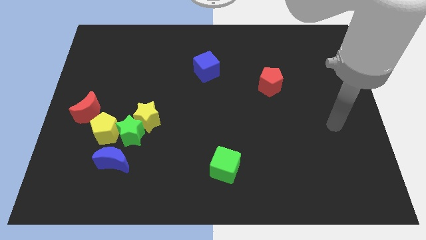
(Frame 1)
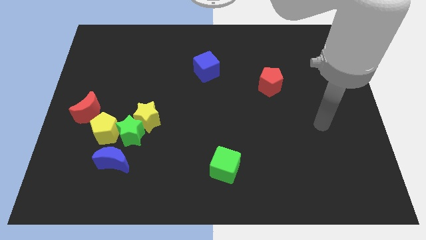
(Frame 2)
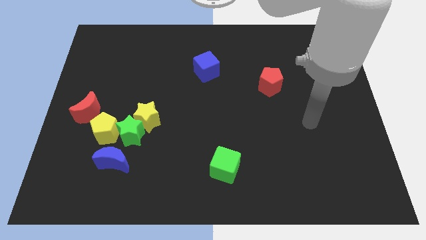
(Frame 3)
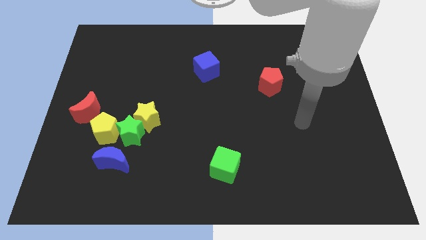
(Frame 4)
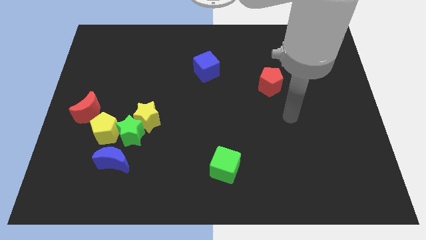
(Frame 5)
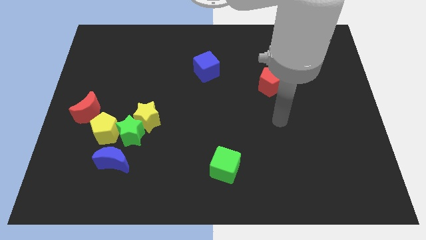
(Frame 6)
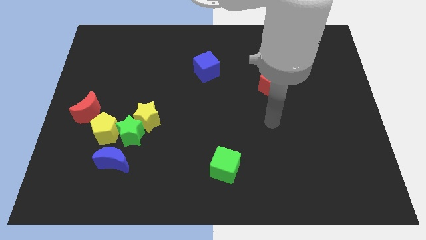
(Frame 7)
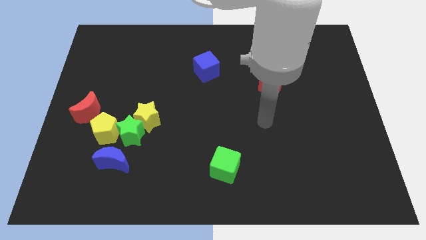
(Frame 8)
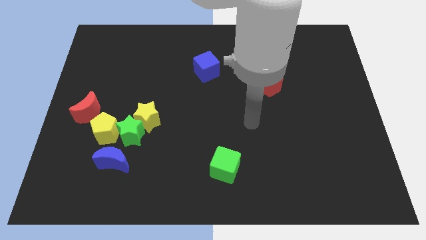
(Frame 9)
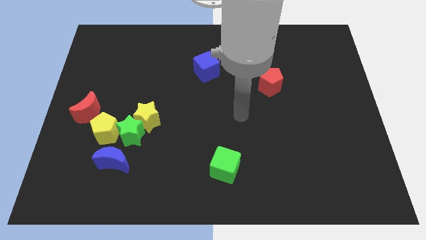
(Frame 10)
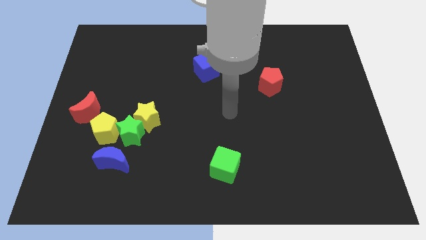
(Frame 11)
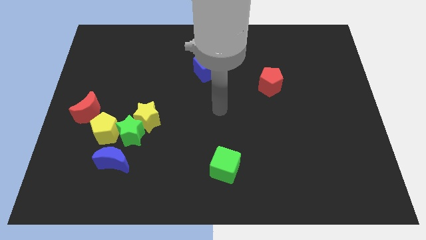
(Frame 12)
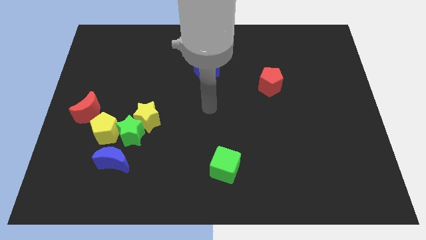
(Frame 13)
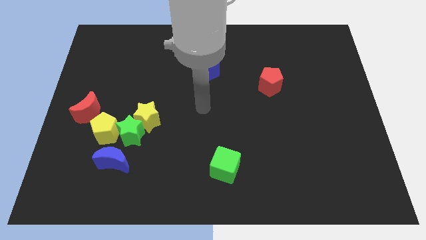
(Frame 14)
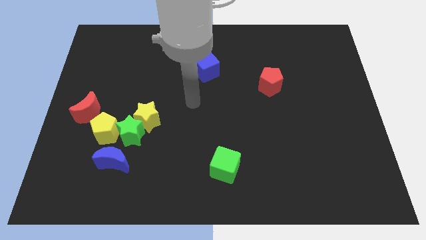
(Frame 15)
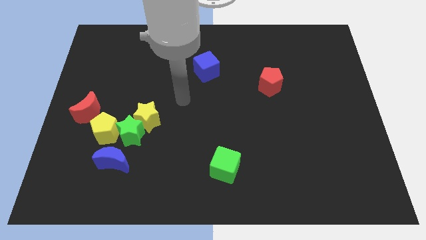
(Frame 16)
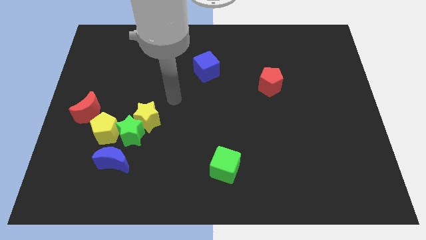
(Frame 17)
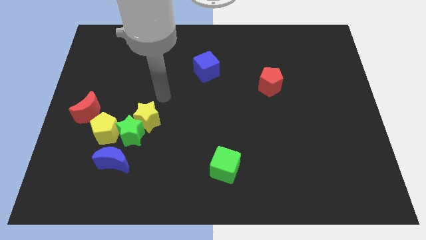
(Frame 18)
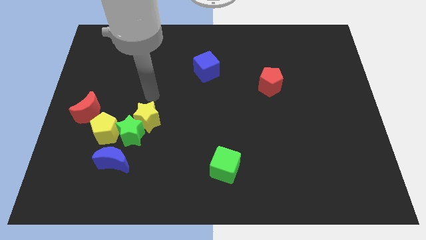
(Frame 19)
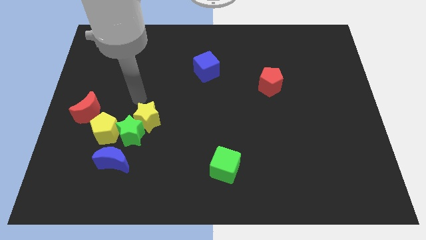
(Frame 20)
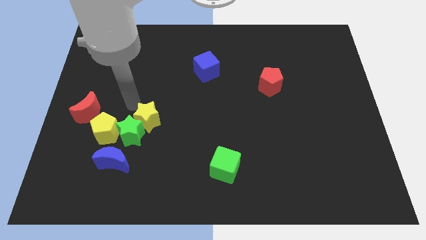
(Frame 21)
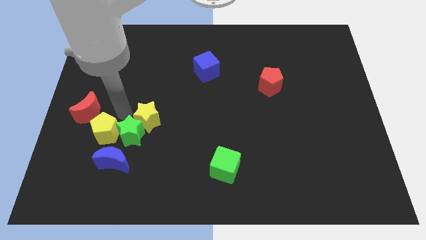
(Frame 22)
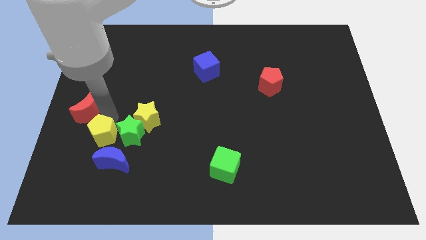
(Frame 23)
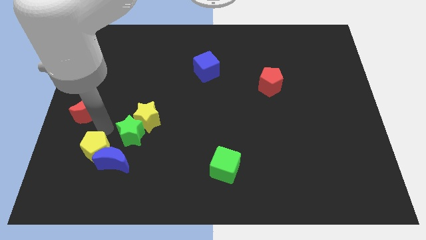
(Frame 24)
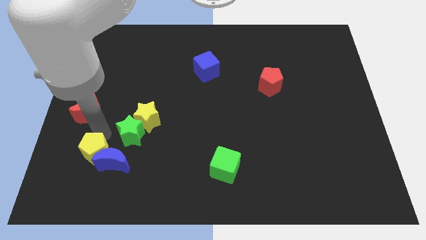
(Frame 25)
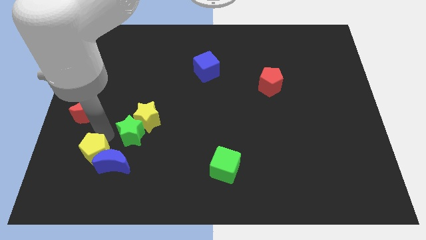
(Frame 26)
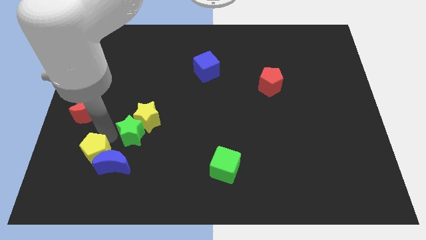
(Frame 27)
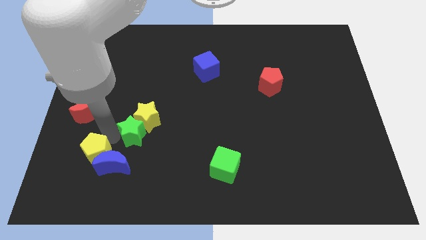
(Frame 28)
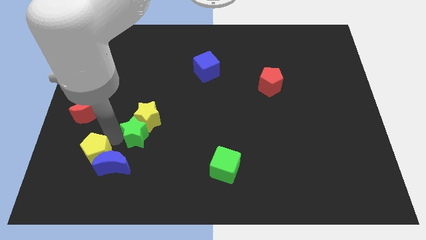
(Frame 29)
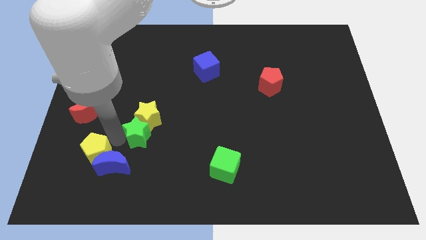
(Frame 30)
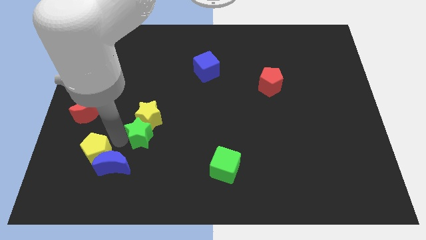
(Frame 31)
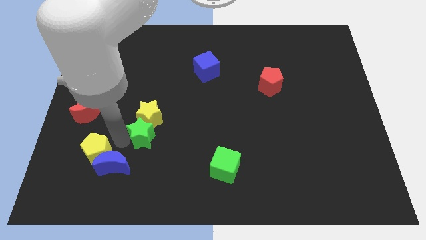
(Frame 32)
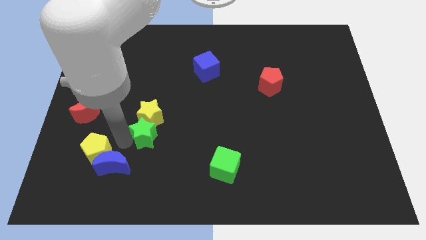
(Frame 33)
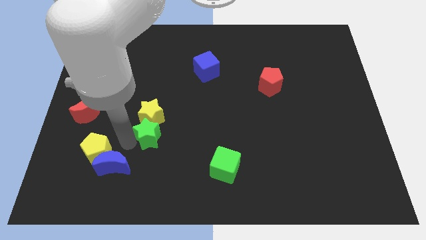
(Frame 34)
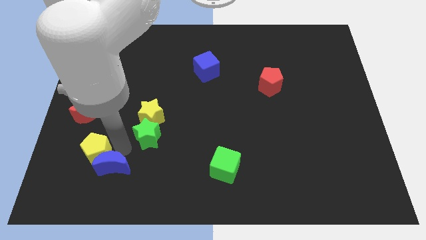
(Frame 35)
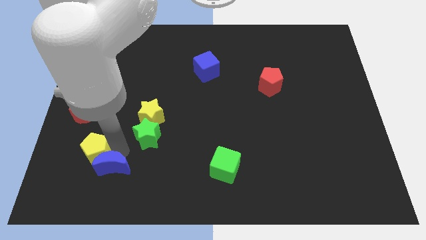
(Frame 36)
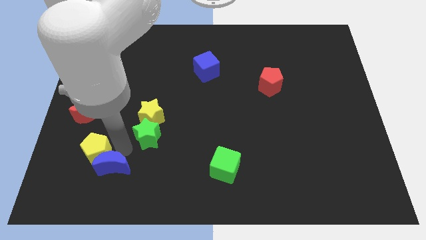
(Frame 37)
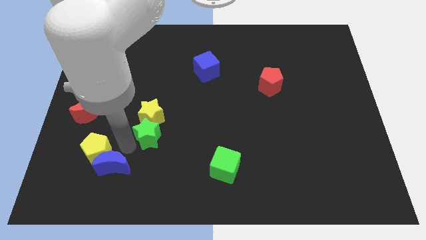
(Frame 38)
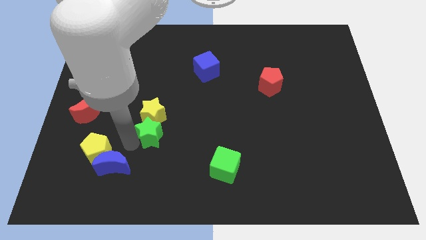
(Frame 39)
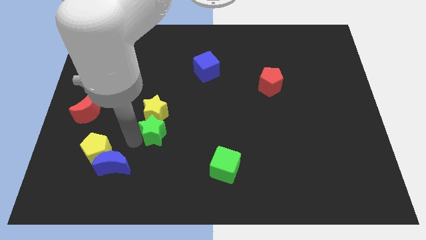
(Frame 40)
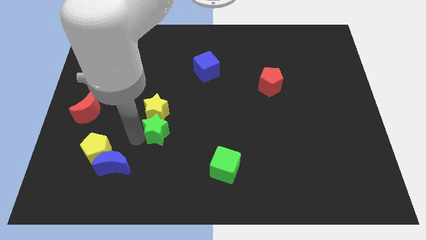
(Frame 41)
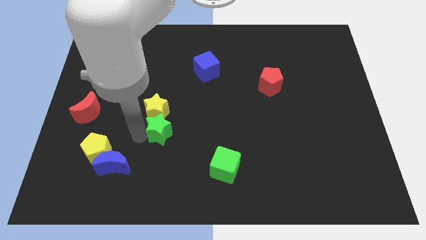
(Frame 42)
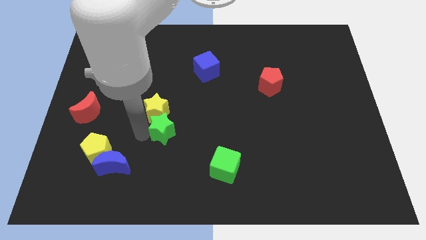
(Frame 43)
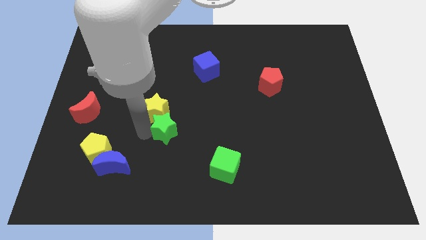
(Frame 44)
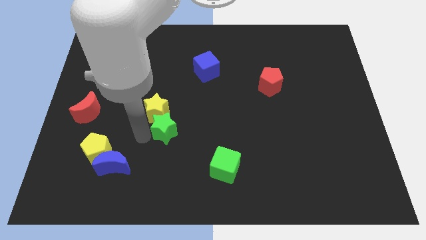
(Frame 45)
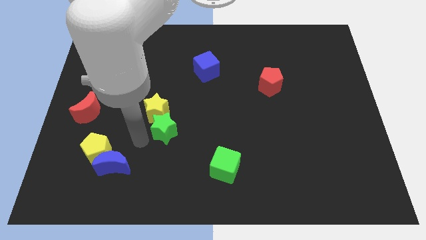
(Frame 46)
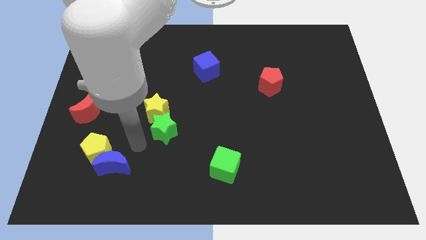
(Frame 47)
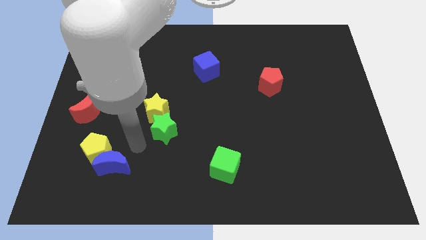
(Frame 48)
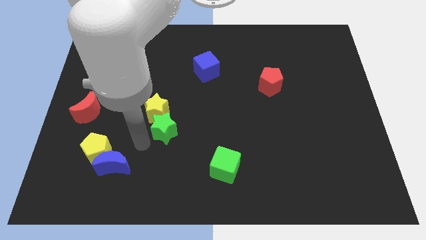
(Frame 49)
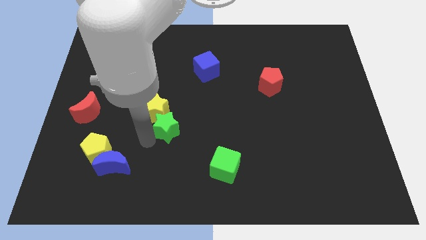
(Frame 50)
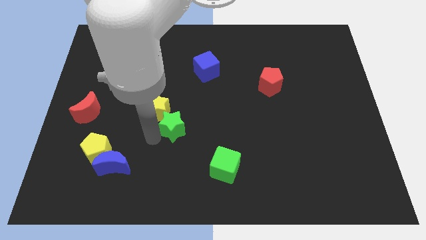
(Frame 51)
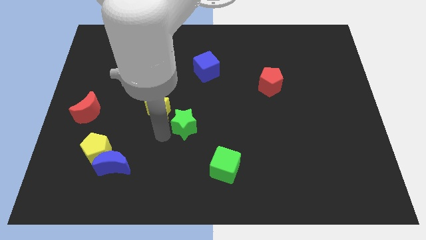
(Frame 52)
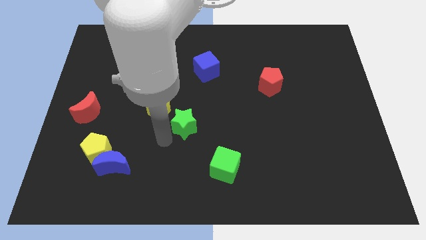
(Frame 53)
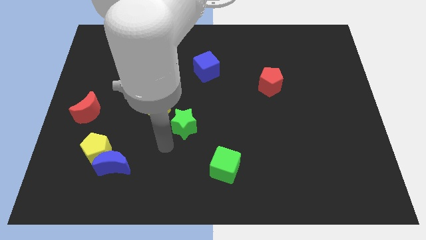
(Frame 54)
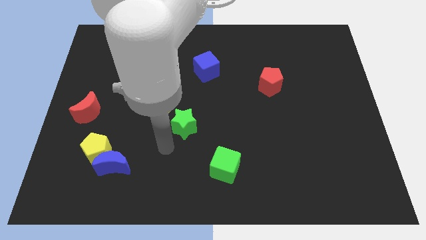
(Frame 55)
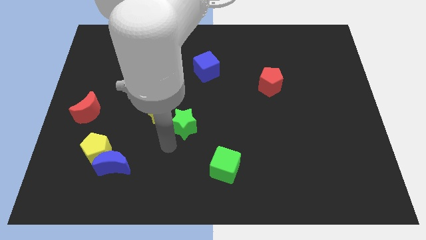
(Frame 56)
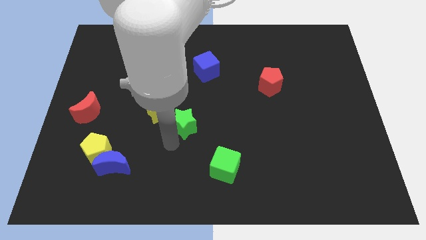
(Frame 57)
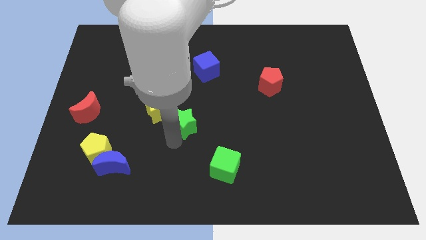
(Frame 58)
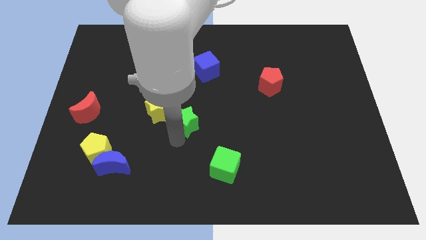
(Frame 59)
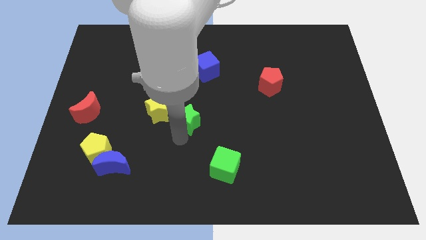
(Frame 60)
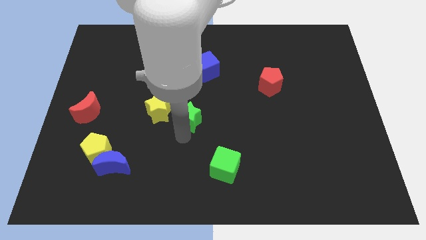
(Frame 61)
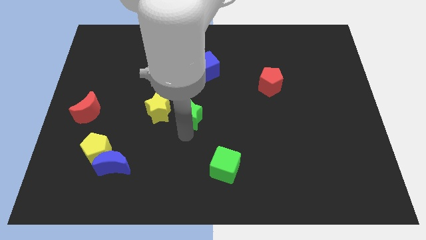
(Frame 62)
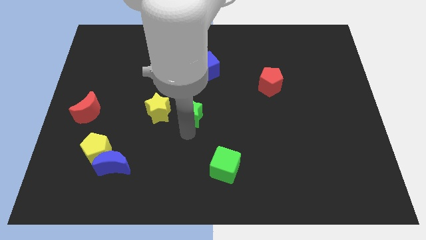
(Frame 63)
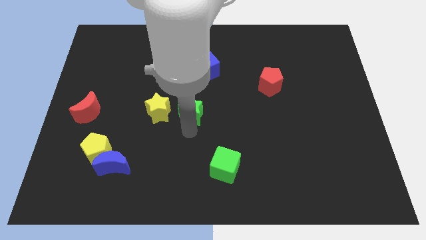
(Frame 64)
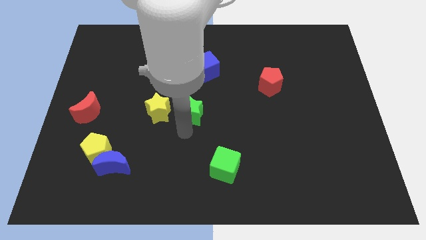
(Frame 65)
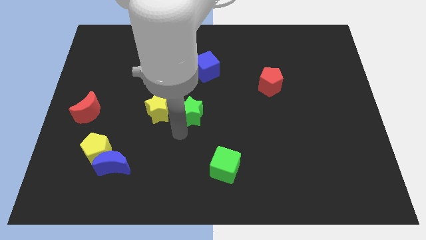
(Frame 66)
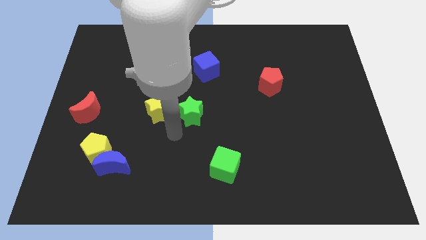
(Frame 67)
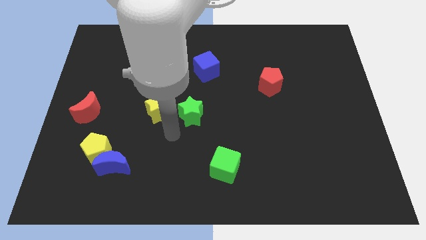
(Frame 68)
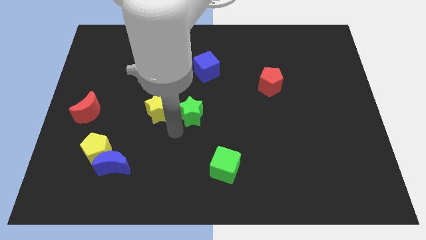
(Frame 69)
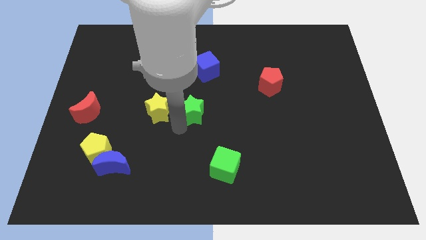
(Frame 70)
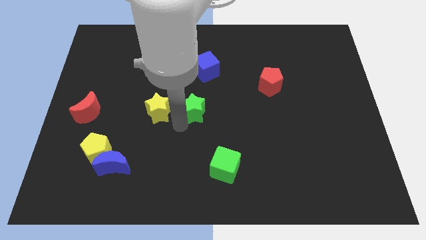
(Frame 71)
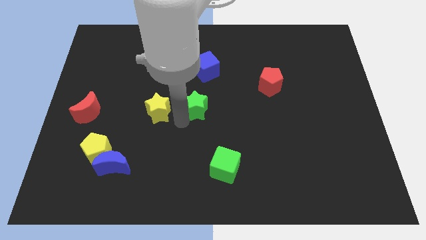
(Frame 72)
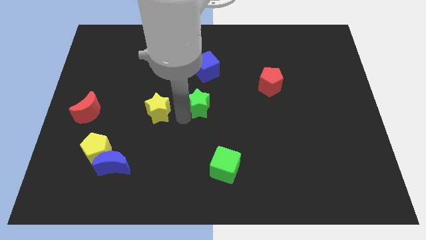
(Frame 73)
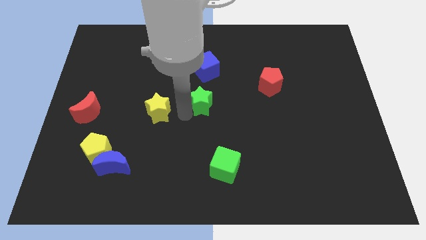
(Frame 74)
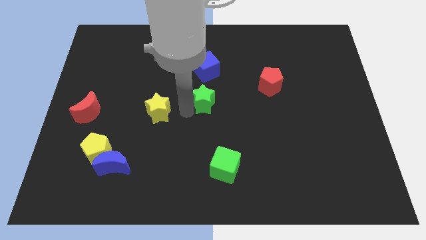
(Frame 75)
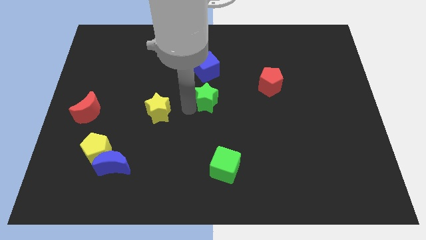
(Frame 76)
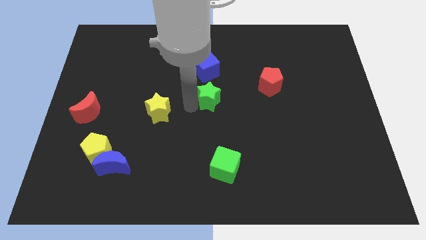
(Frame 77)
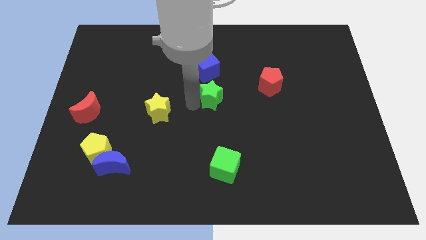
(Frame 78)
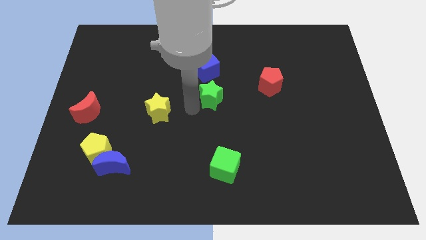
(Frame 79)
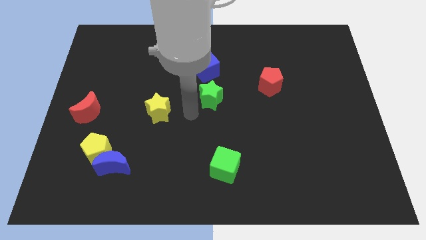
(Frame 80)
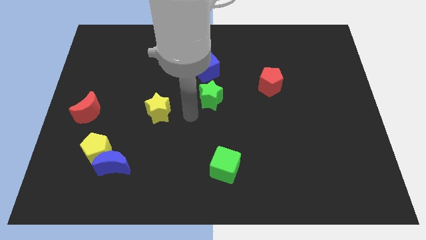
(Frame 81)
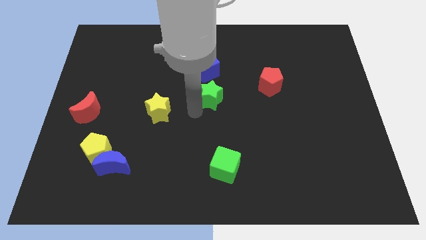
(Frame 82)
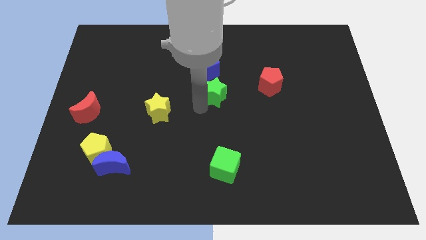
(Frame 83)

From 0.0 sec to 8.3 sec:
slide the green star diagonally down and to the right of the blue cube
